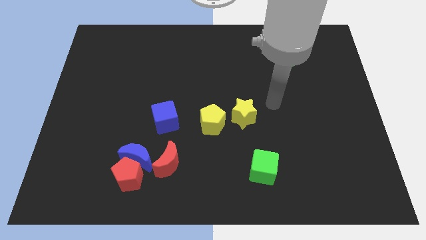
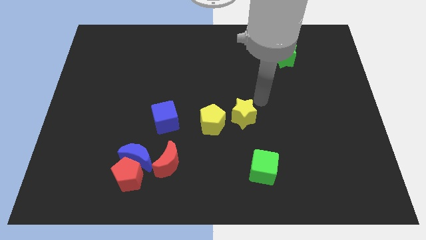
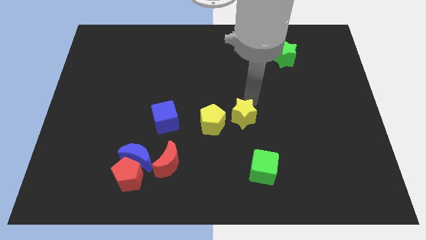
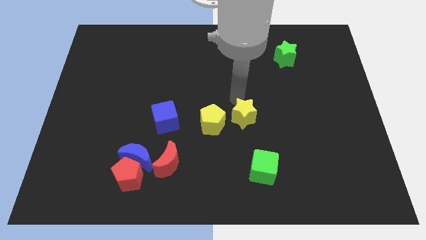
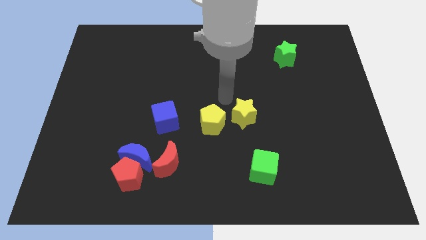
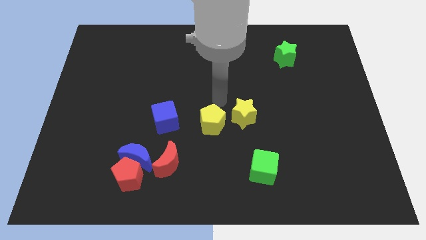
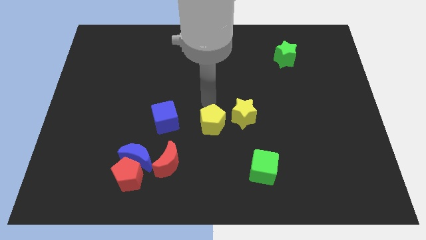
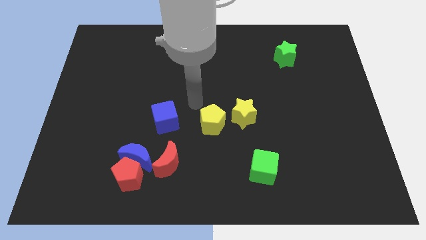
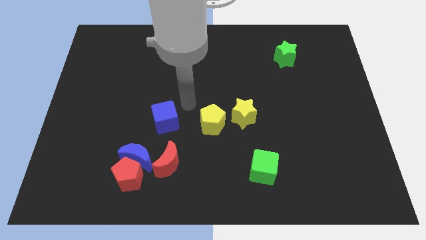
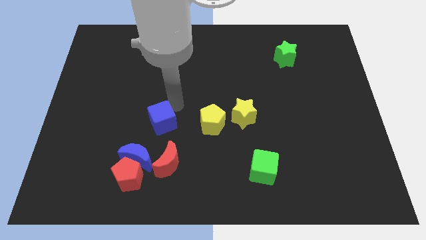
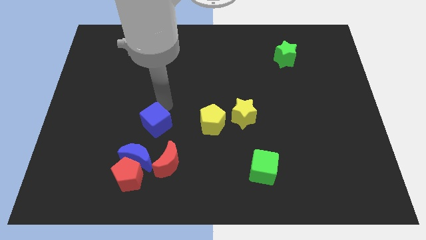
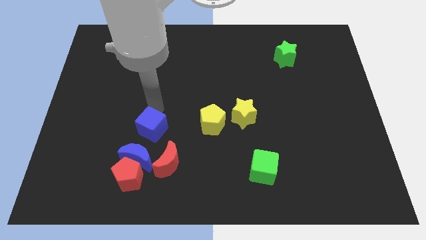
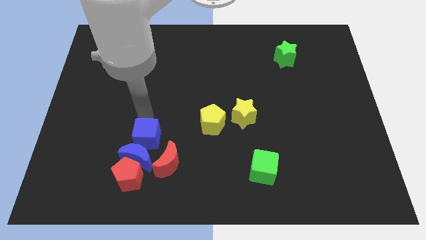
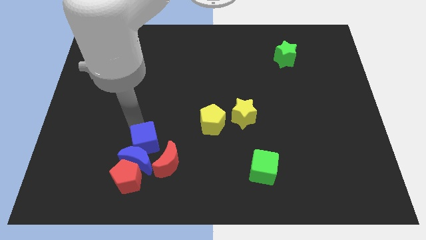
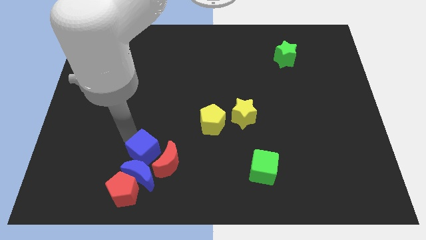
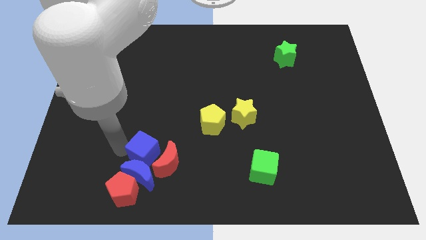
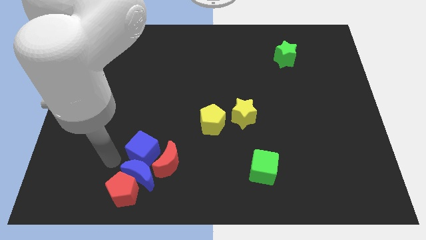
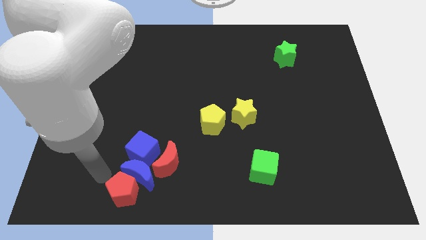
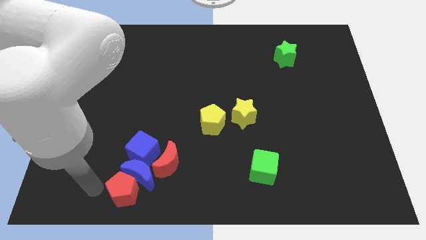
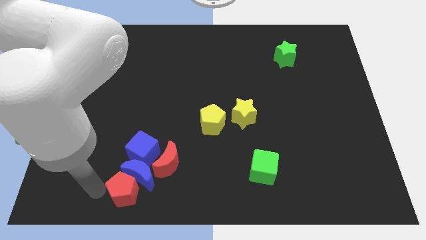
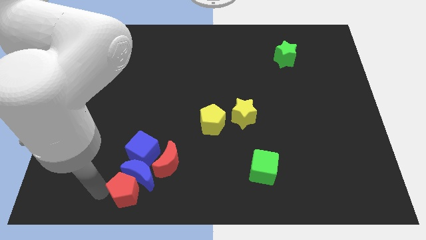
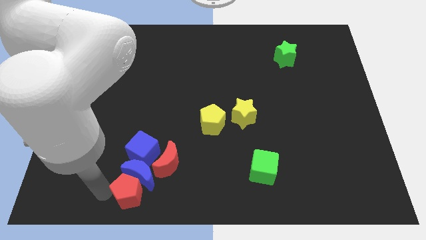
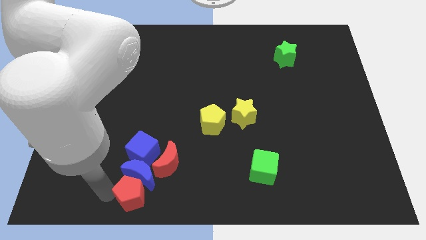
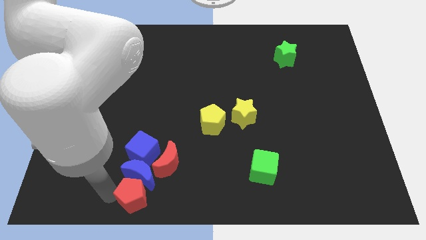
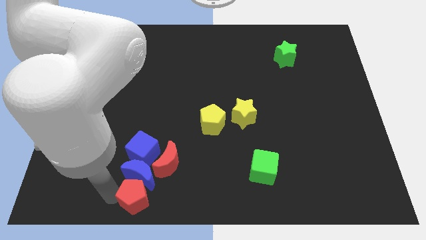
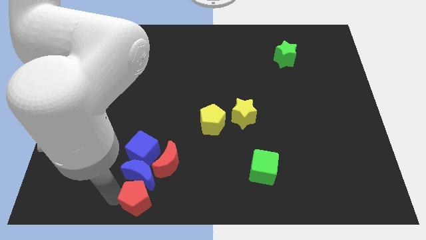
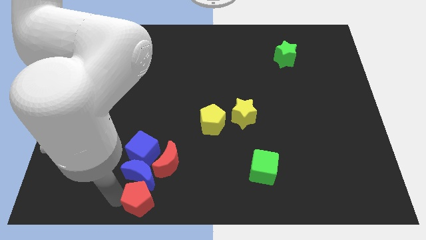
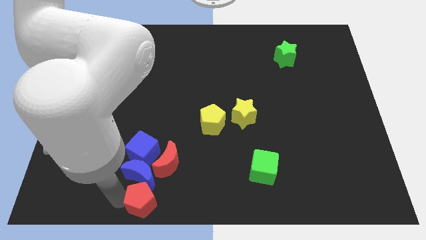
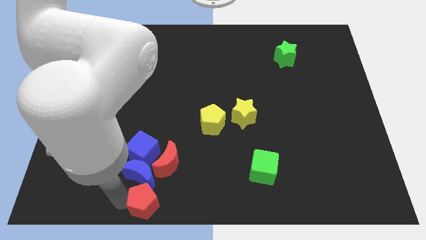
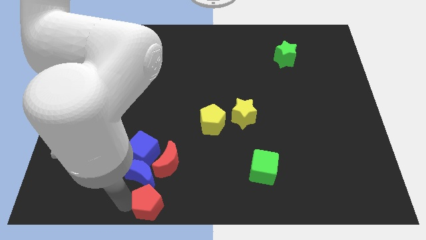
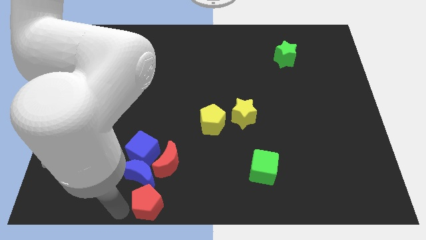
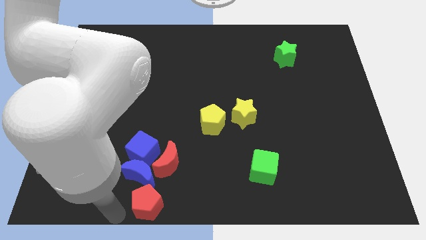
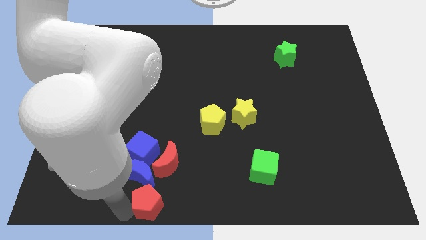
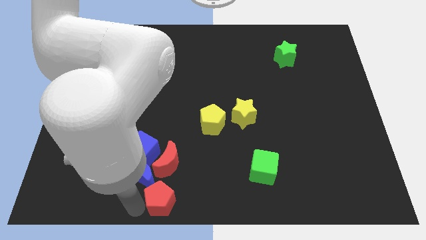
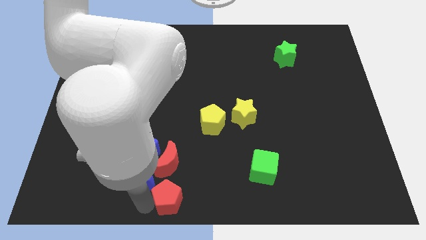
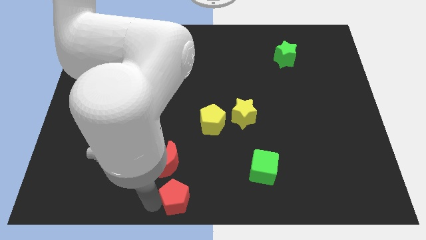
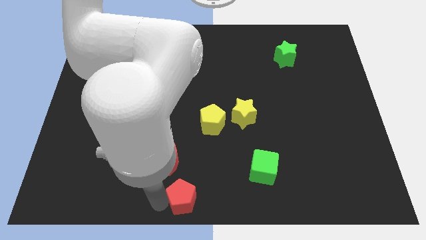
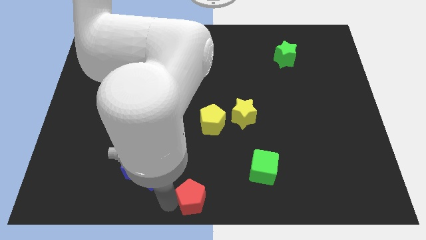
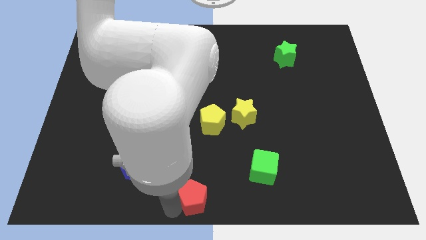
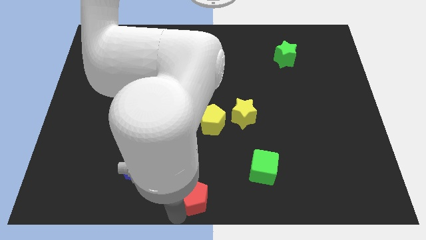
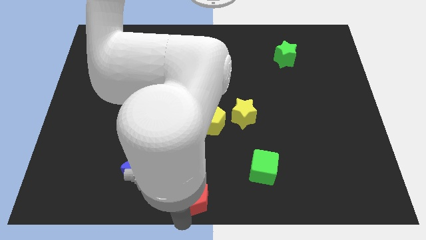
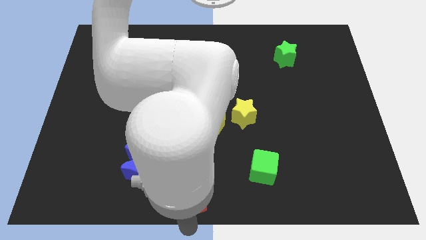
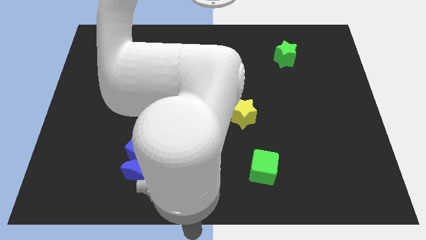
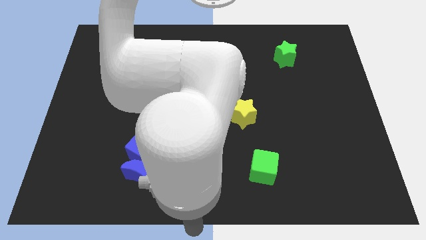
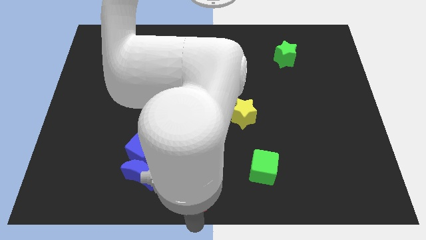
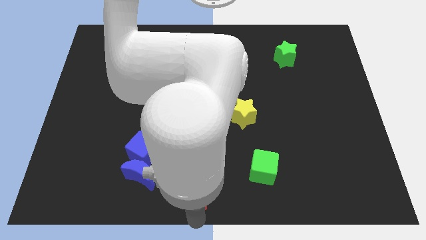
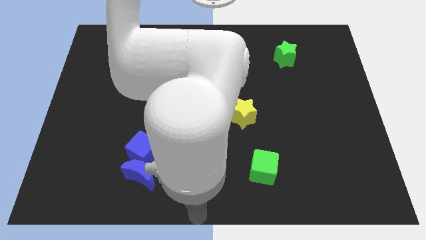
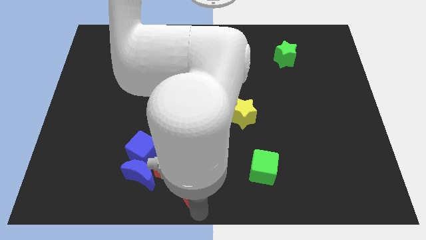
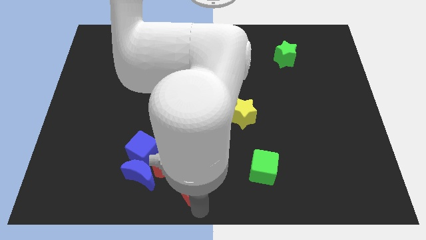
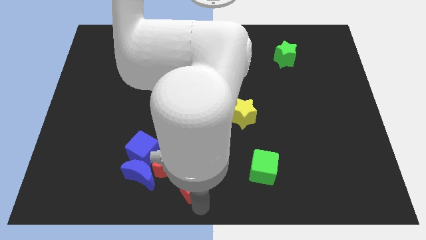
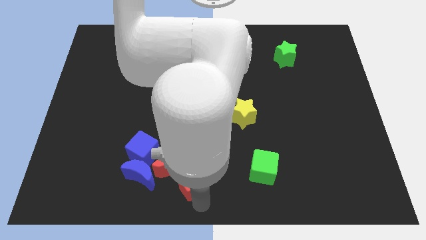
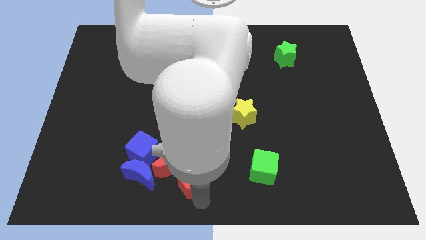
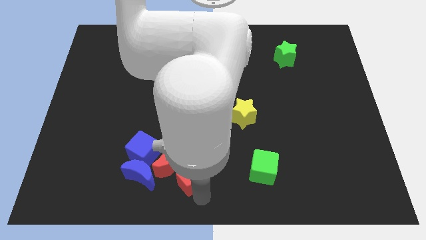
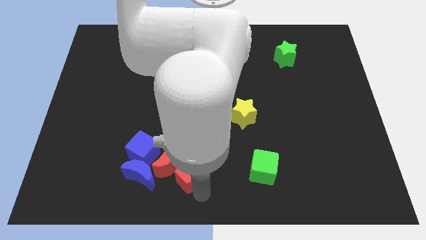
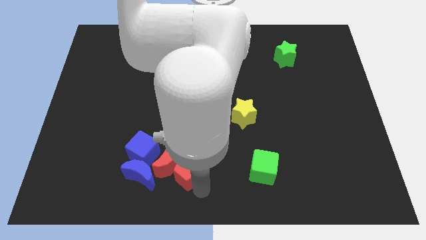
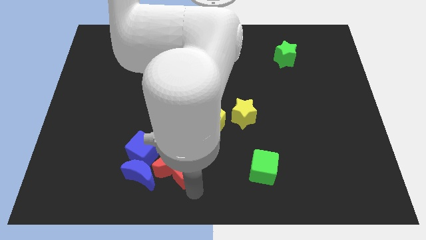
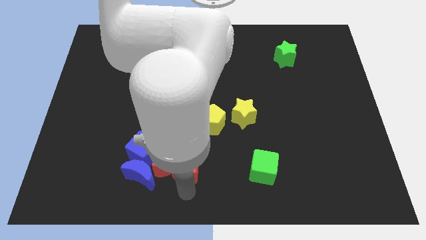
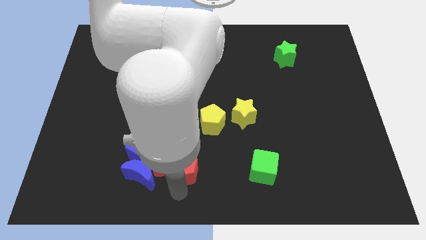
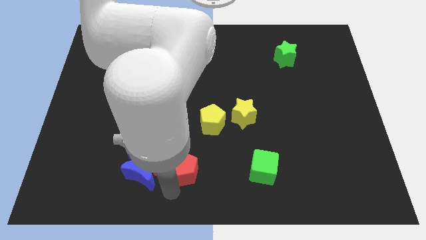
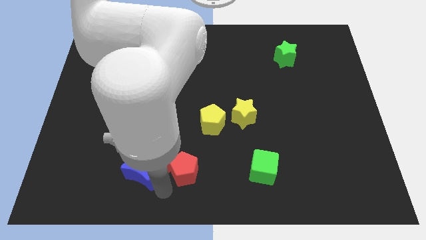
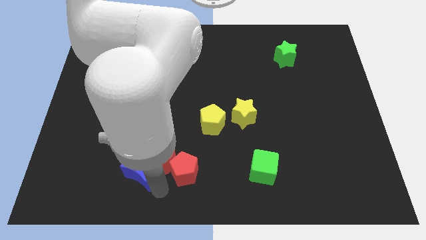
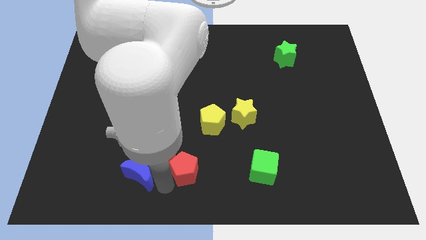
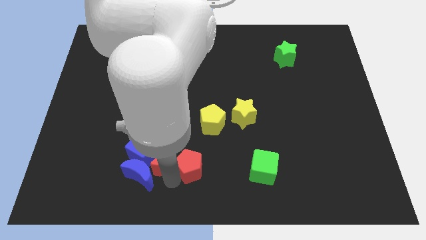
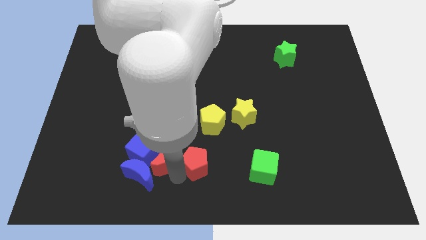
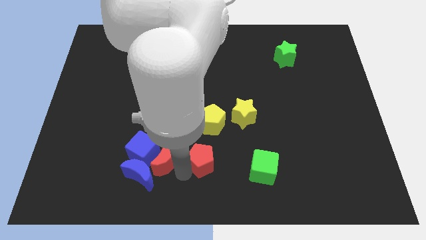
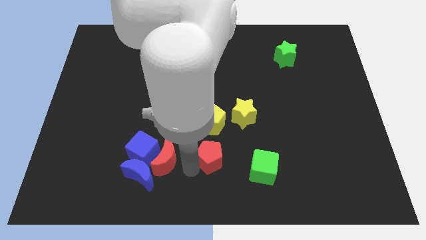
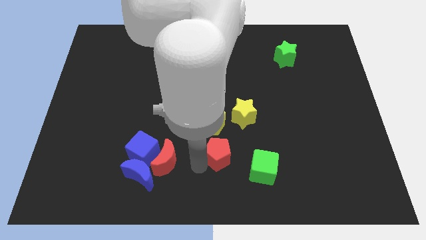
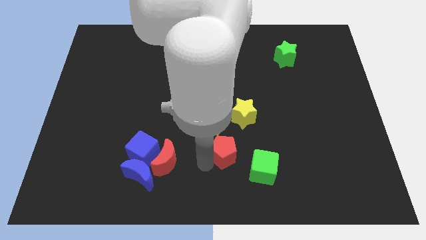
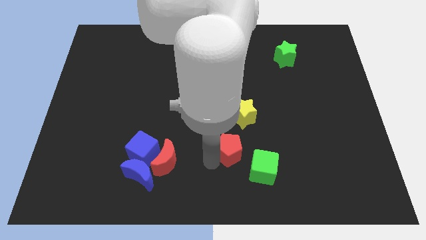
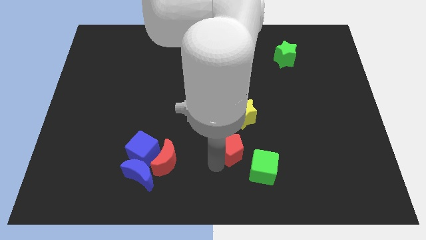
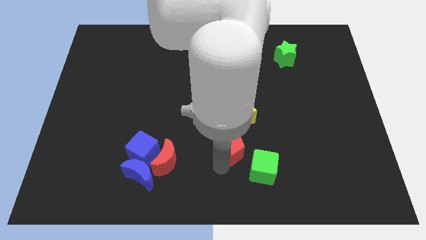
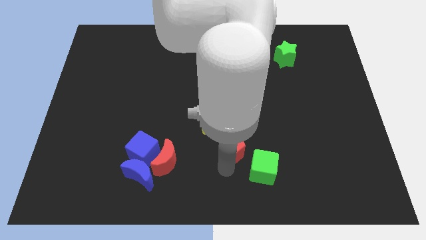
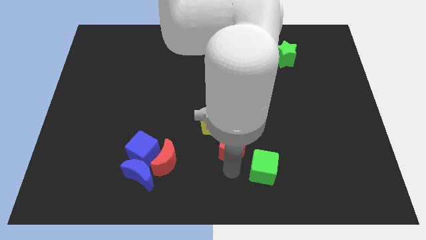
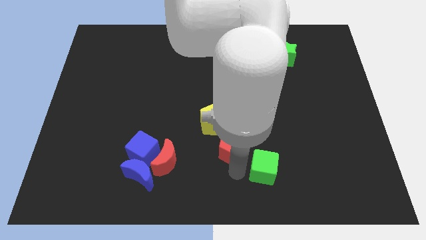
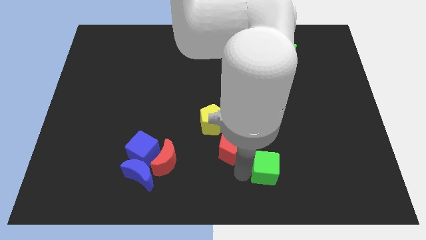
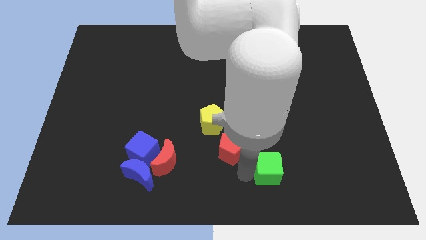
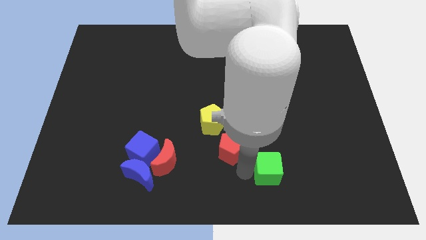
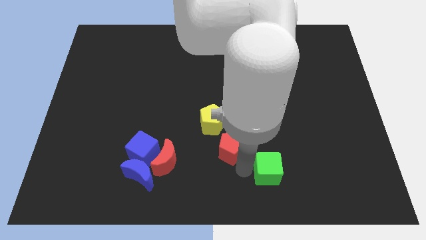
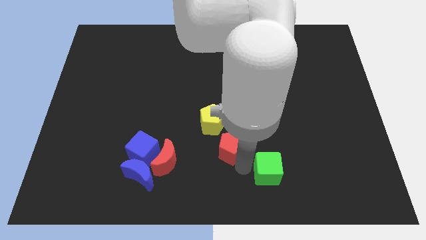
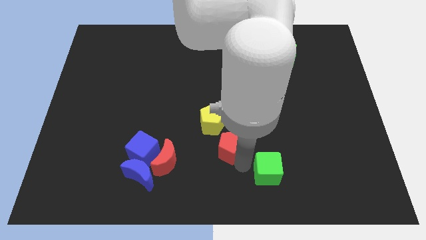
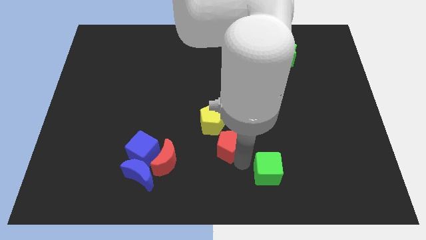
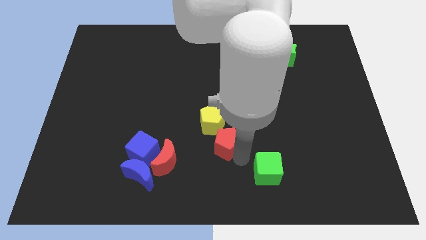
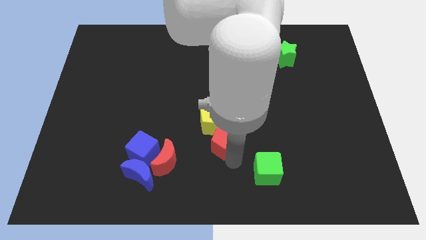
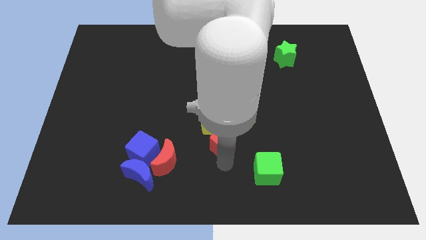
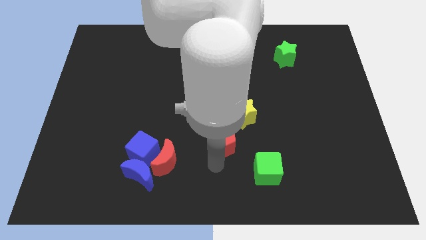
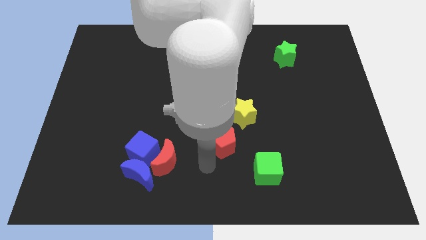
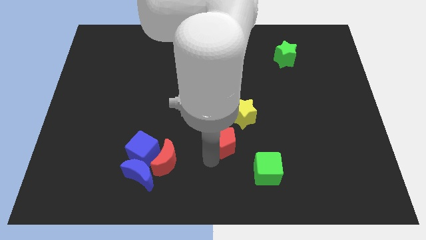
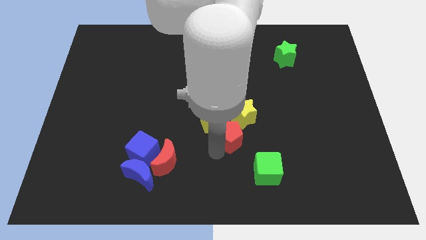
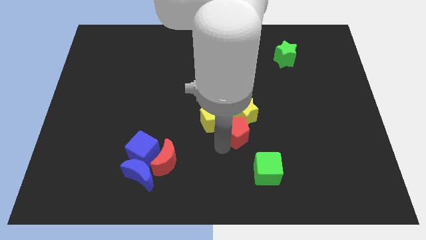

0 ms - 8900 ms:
move the red pentagon towards the yellow star
